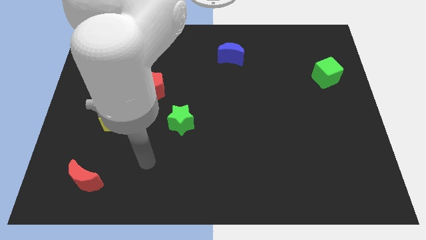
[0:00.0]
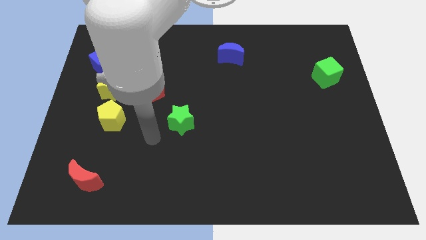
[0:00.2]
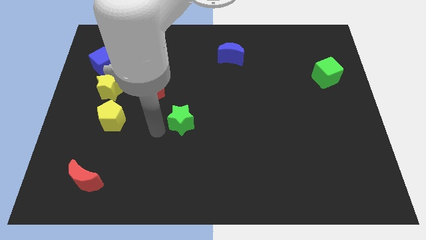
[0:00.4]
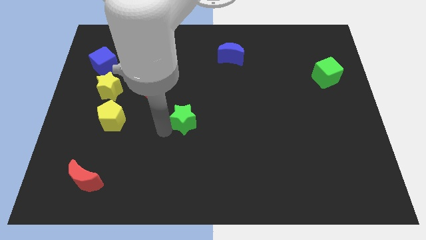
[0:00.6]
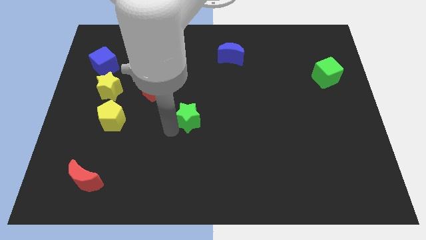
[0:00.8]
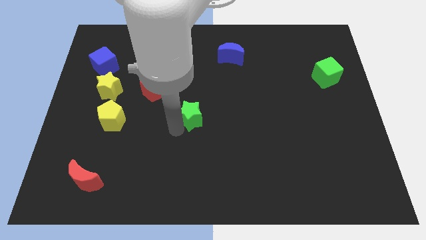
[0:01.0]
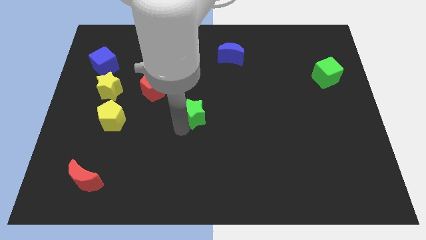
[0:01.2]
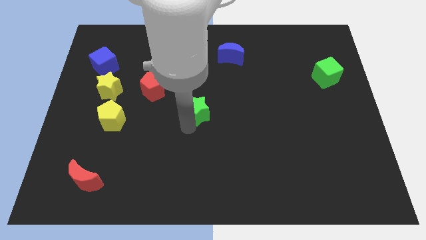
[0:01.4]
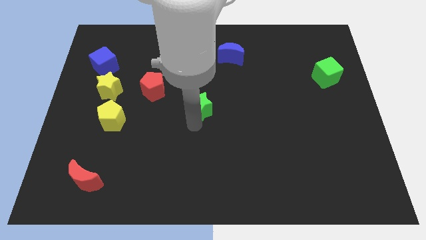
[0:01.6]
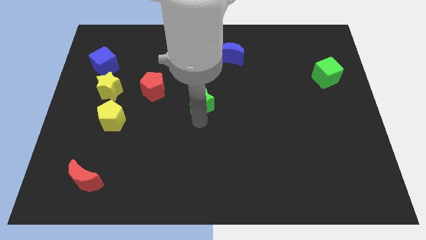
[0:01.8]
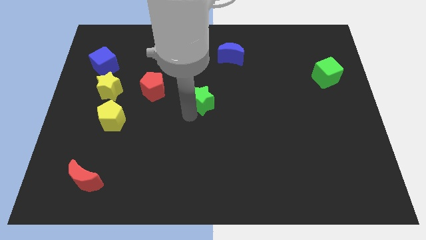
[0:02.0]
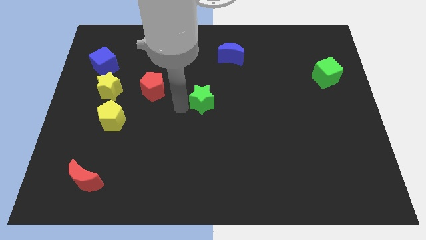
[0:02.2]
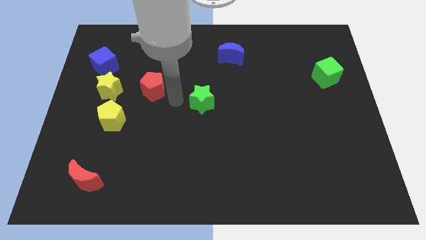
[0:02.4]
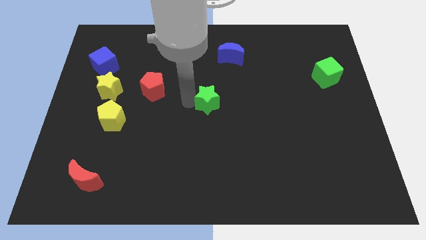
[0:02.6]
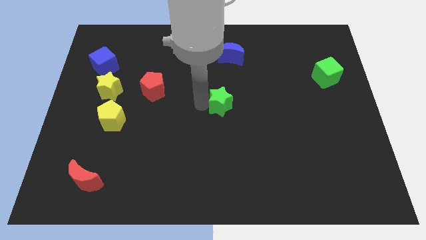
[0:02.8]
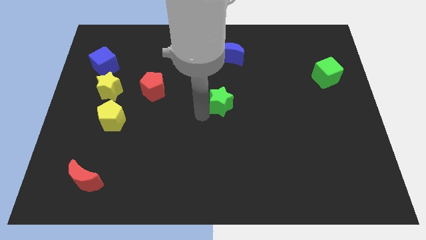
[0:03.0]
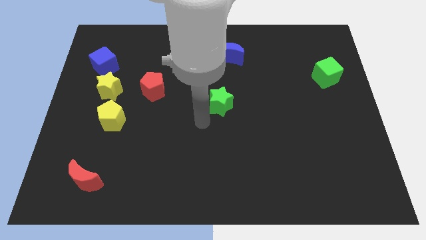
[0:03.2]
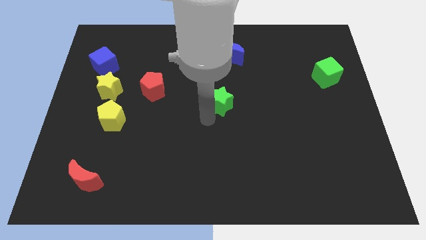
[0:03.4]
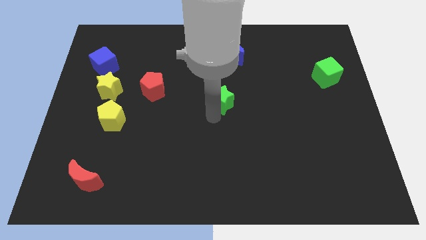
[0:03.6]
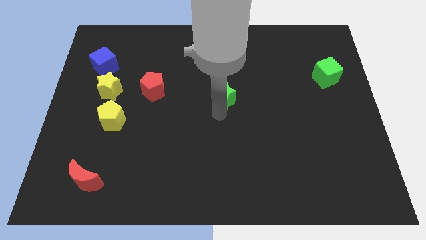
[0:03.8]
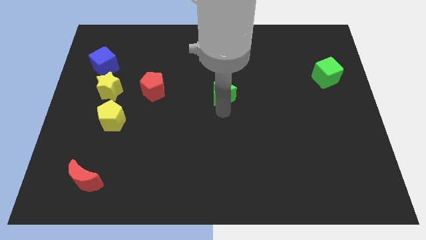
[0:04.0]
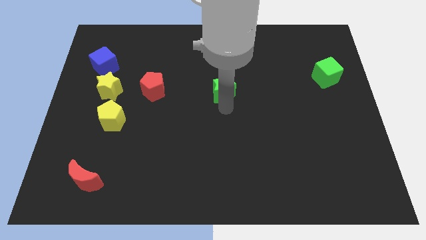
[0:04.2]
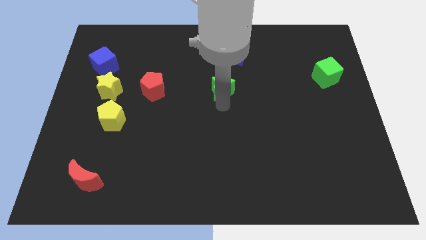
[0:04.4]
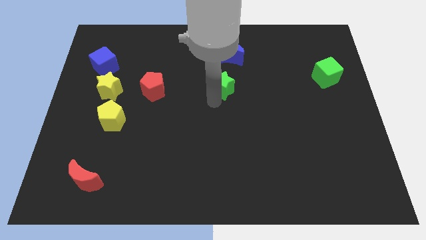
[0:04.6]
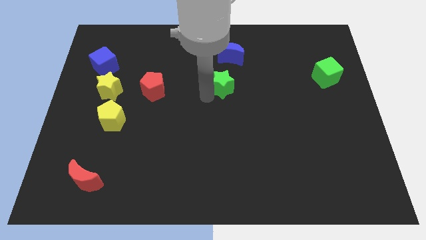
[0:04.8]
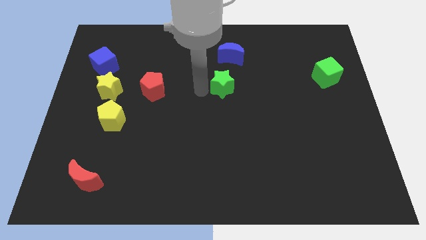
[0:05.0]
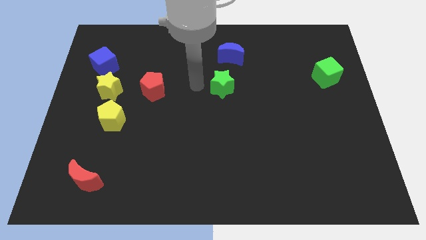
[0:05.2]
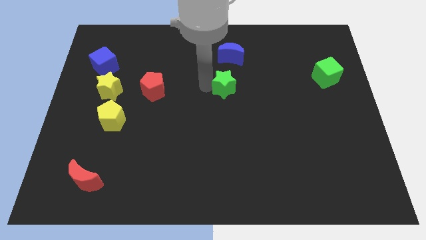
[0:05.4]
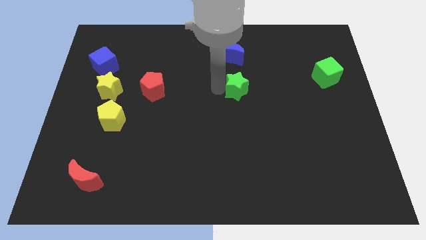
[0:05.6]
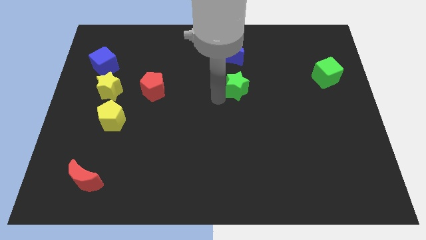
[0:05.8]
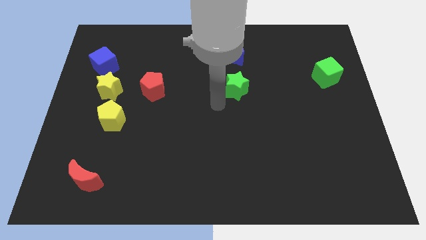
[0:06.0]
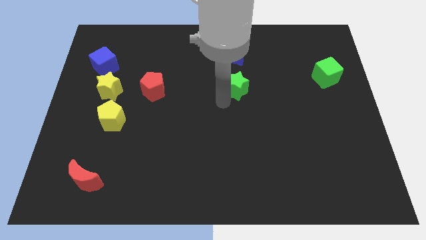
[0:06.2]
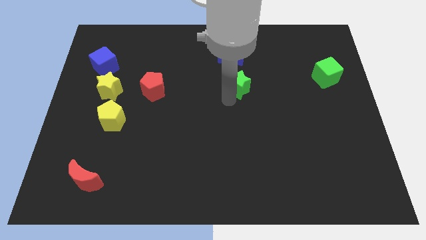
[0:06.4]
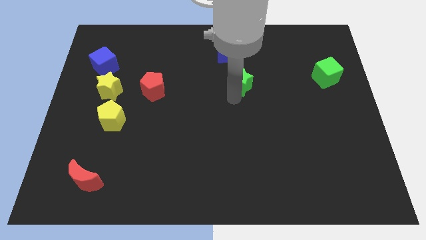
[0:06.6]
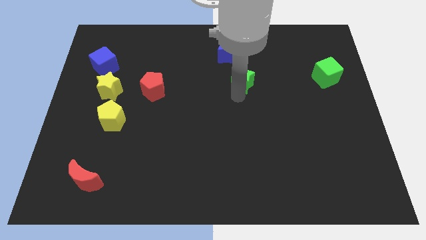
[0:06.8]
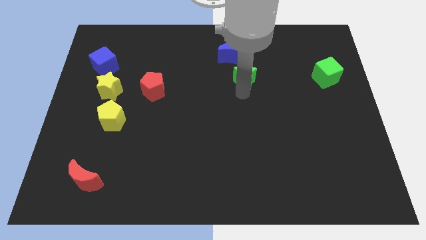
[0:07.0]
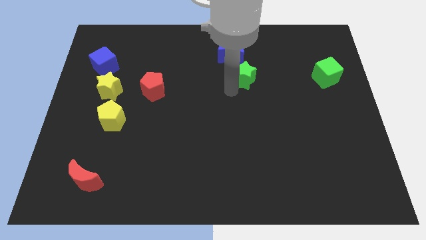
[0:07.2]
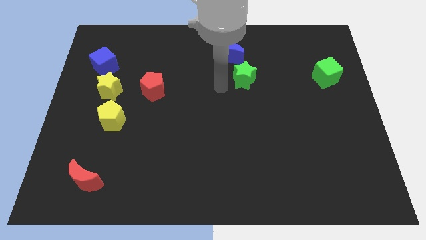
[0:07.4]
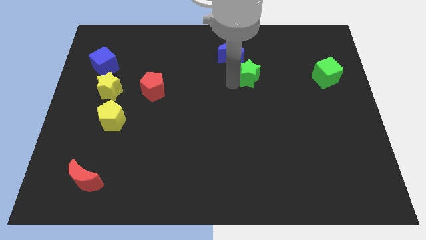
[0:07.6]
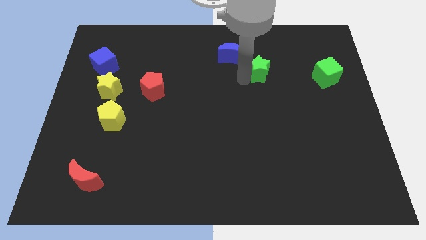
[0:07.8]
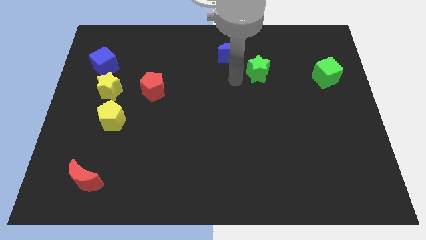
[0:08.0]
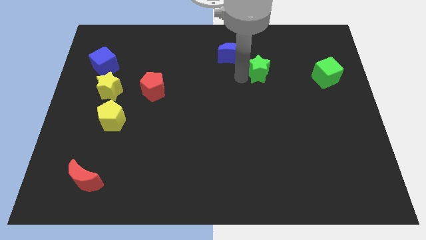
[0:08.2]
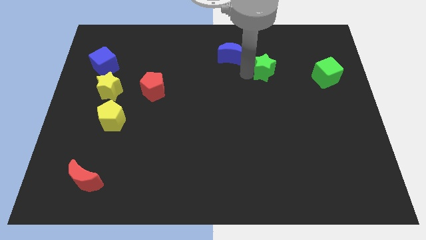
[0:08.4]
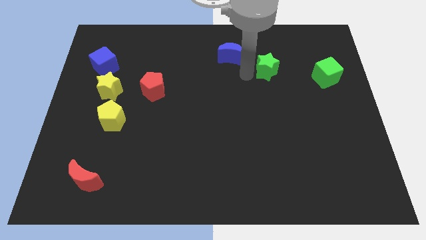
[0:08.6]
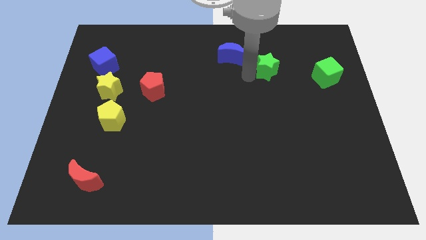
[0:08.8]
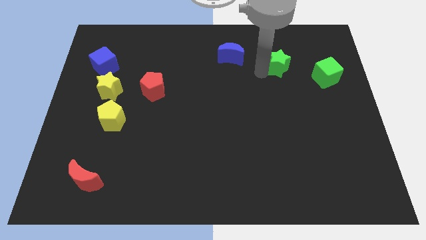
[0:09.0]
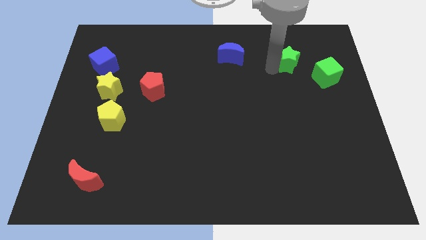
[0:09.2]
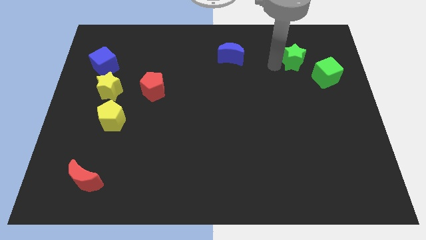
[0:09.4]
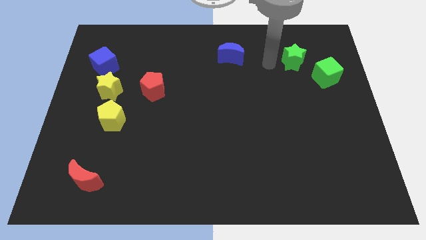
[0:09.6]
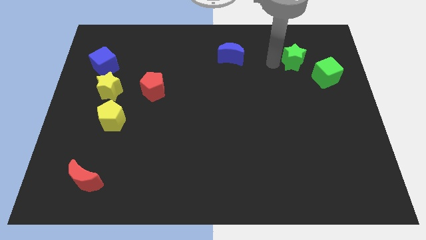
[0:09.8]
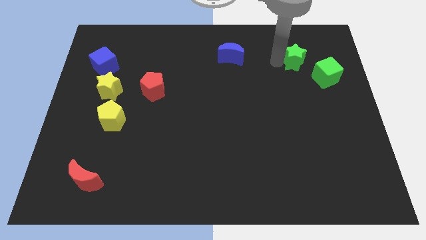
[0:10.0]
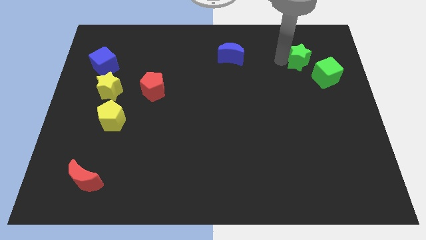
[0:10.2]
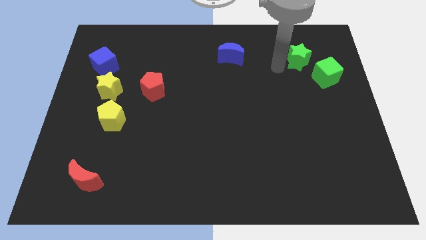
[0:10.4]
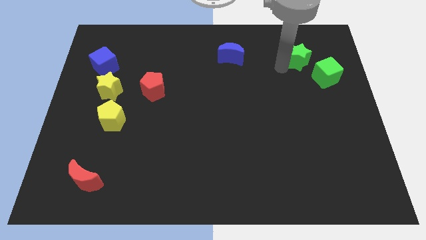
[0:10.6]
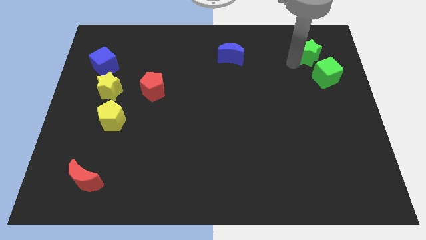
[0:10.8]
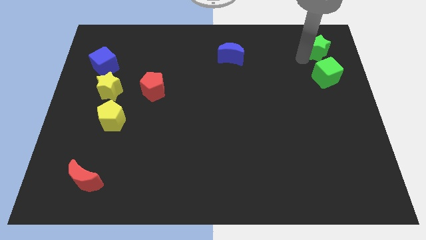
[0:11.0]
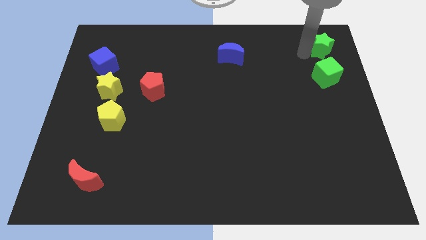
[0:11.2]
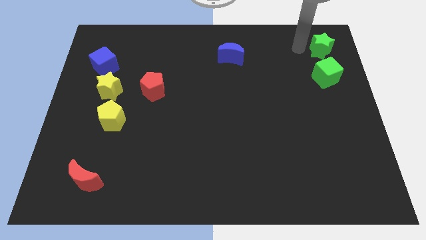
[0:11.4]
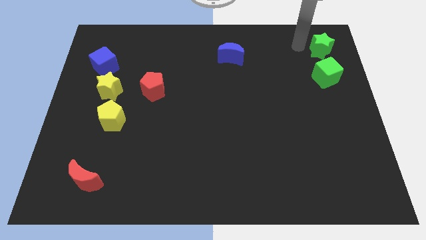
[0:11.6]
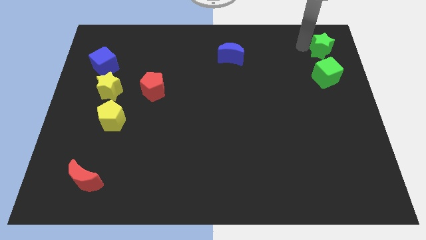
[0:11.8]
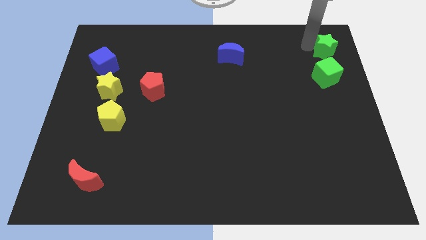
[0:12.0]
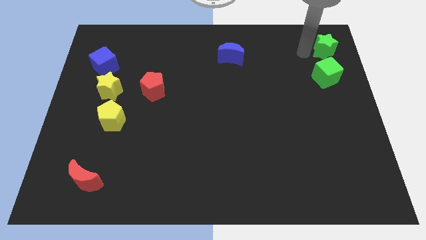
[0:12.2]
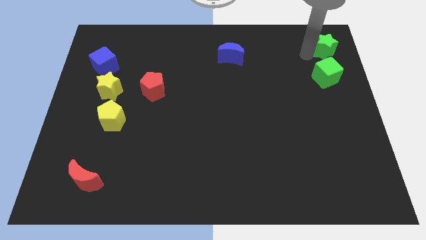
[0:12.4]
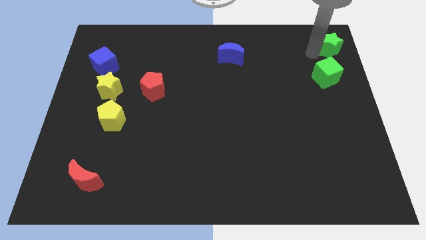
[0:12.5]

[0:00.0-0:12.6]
put the green star to the top right
